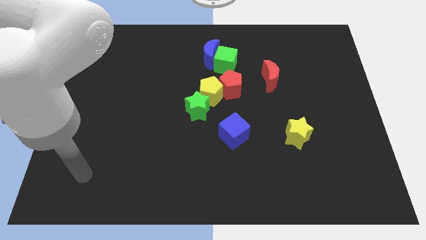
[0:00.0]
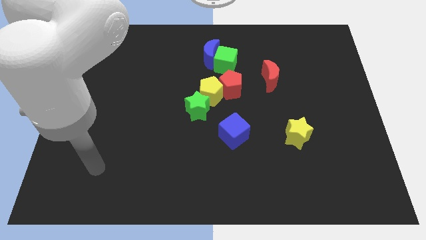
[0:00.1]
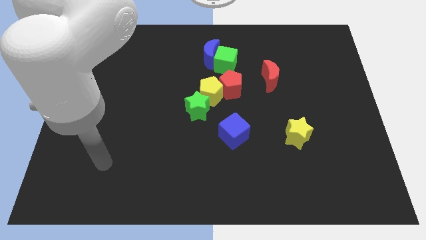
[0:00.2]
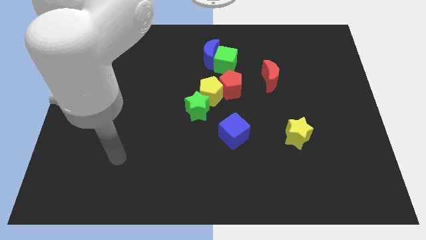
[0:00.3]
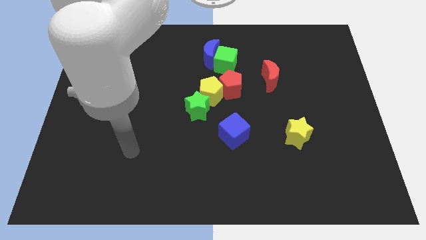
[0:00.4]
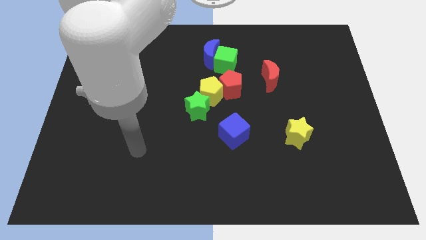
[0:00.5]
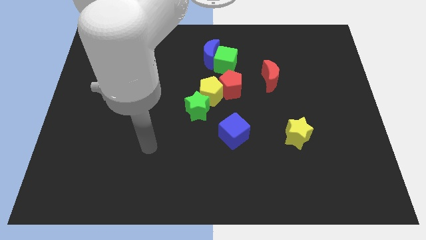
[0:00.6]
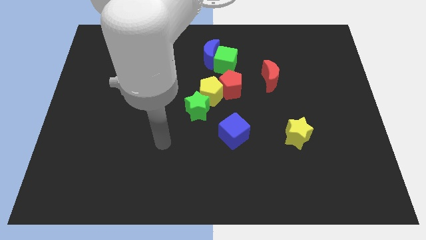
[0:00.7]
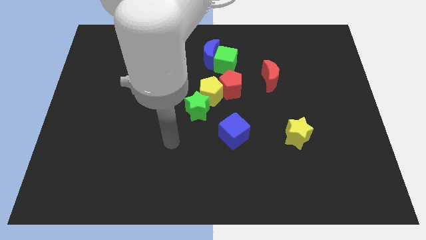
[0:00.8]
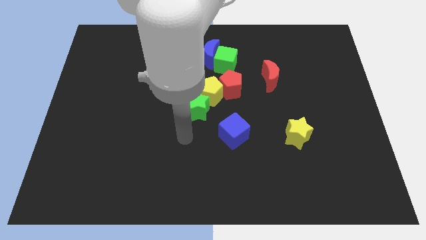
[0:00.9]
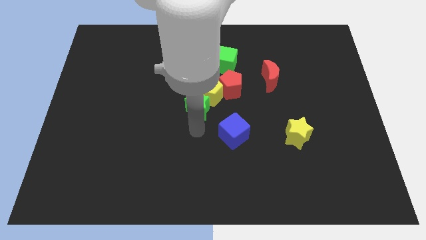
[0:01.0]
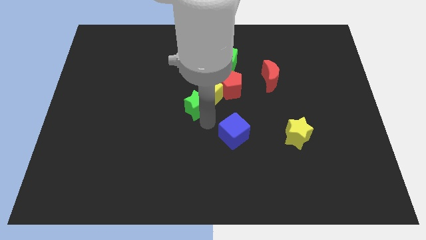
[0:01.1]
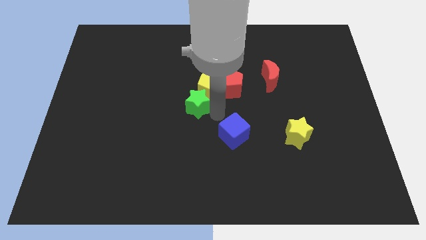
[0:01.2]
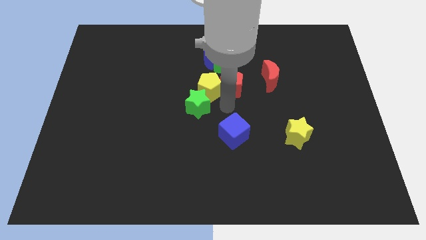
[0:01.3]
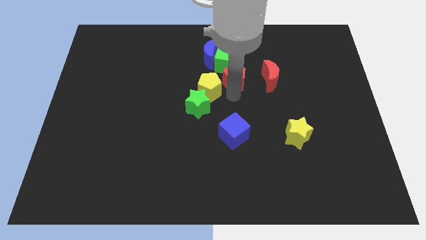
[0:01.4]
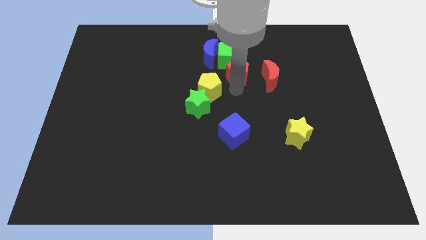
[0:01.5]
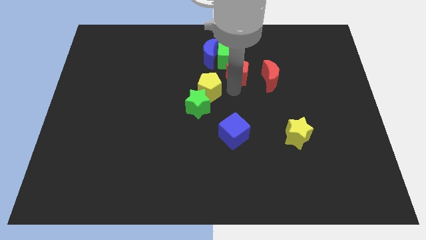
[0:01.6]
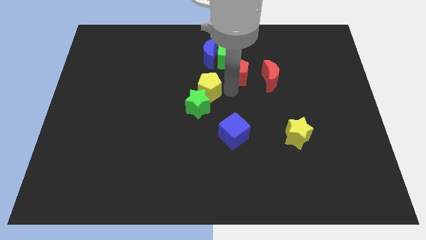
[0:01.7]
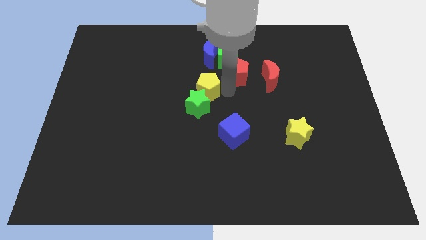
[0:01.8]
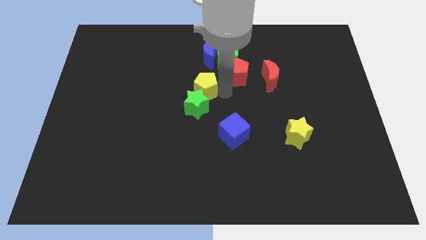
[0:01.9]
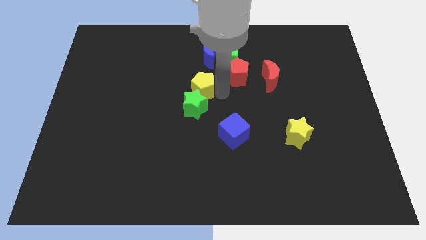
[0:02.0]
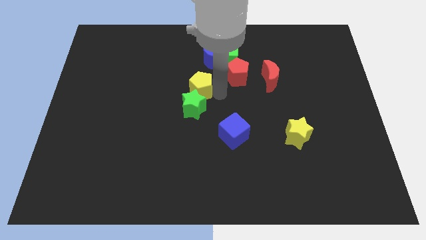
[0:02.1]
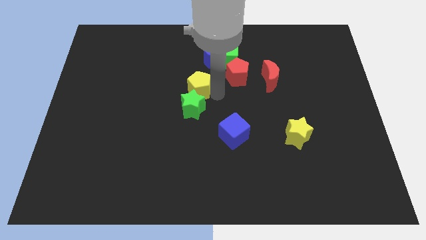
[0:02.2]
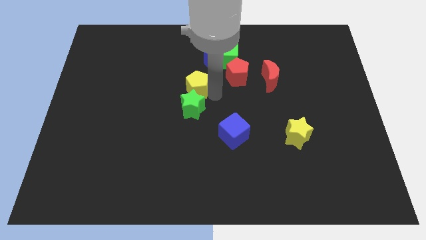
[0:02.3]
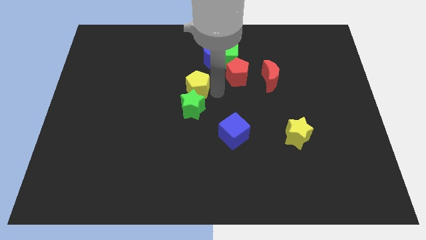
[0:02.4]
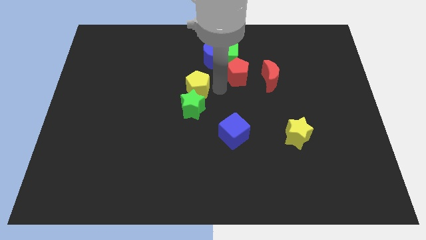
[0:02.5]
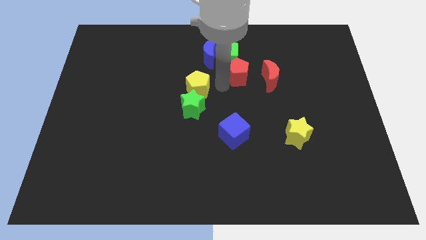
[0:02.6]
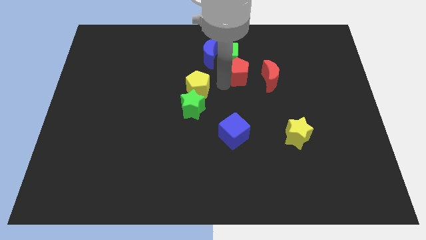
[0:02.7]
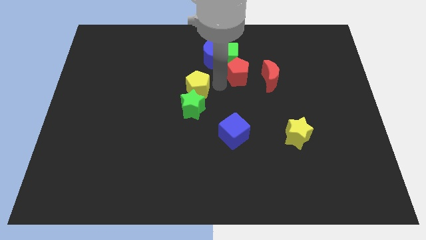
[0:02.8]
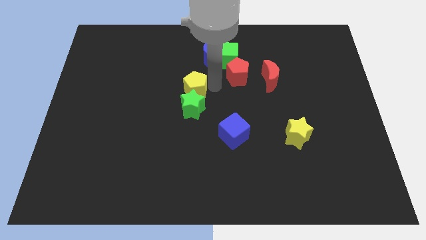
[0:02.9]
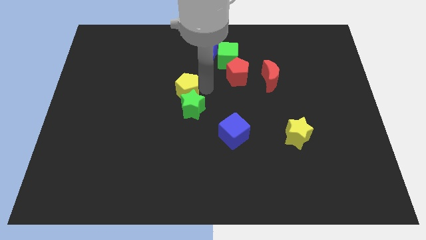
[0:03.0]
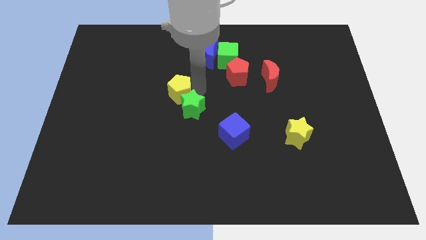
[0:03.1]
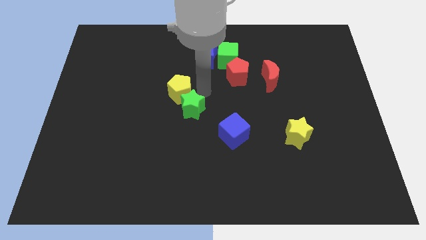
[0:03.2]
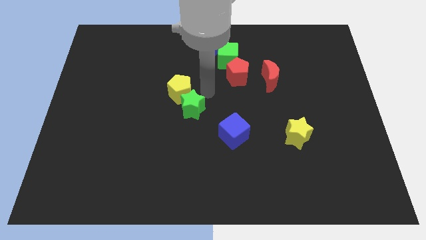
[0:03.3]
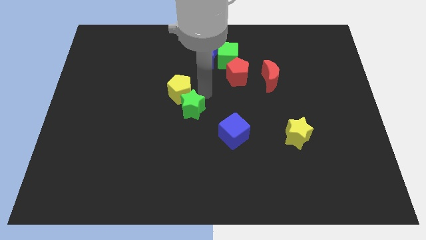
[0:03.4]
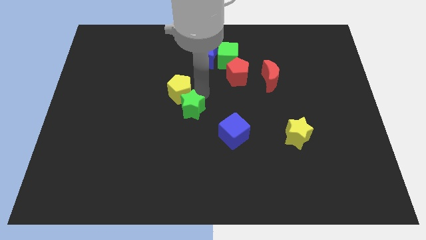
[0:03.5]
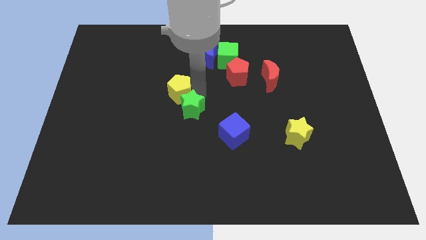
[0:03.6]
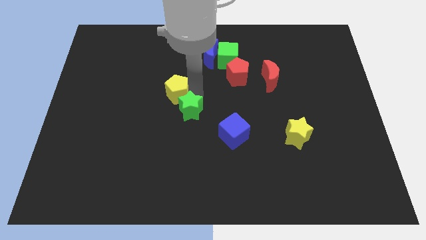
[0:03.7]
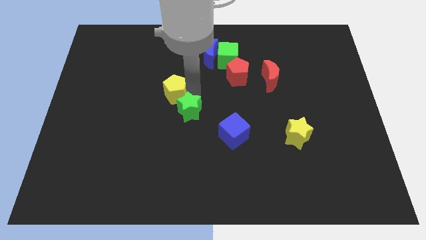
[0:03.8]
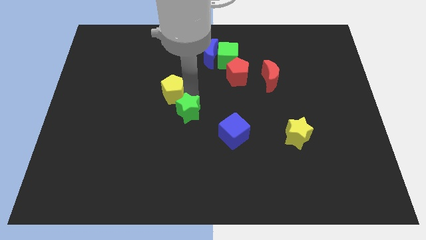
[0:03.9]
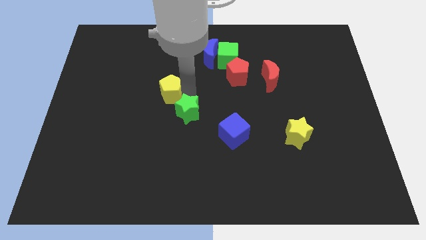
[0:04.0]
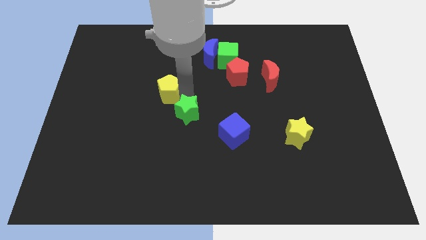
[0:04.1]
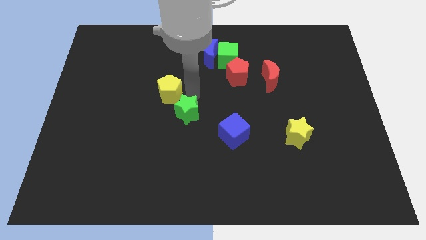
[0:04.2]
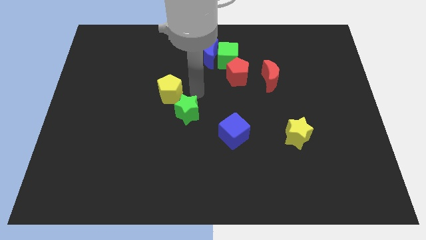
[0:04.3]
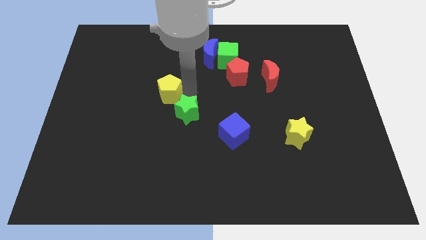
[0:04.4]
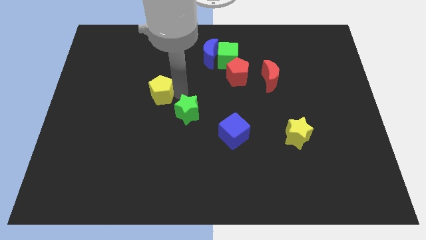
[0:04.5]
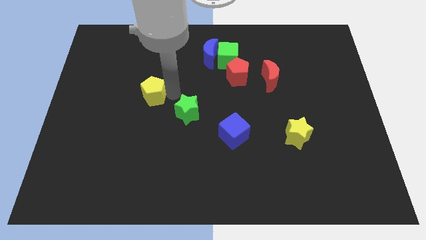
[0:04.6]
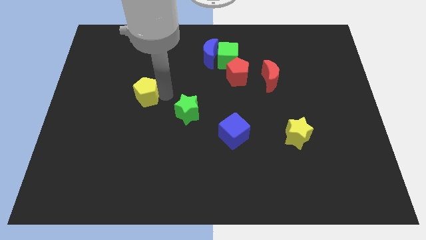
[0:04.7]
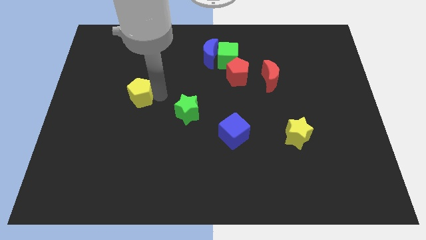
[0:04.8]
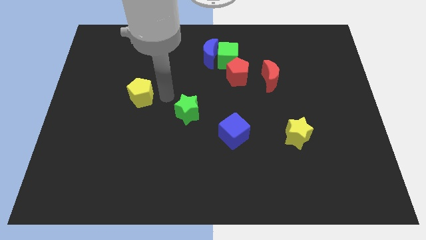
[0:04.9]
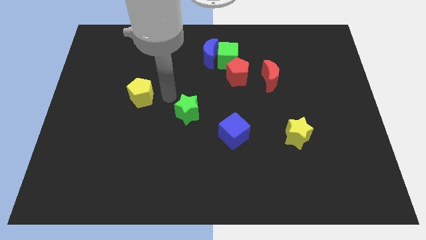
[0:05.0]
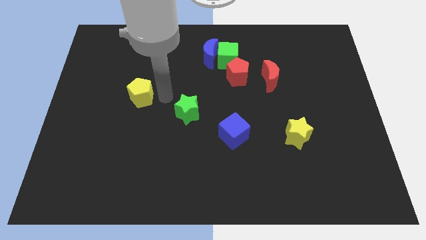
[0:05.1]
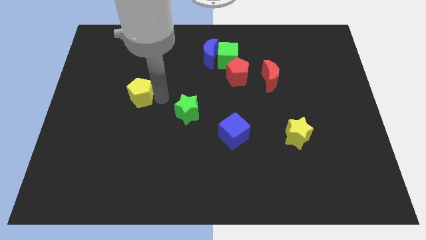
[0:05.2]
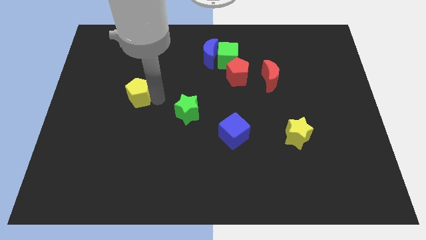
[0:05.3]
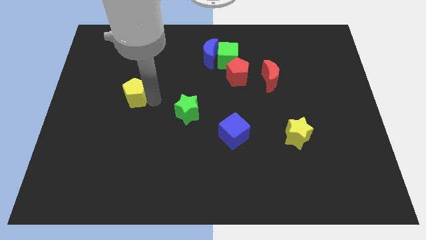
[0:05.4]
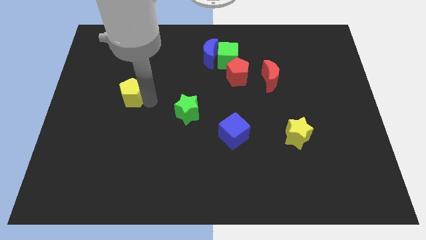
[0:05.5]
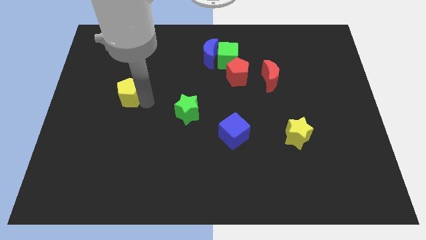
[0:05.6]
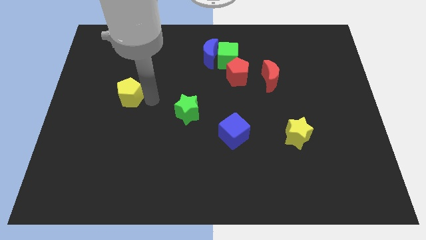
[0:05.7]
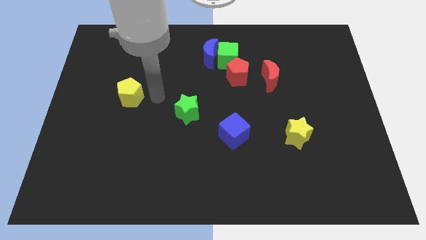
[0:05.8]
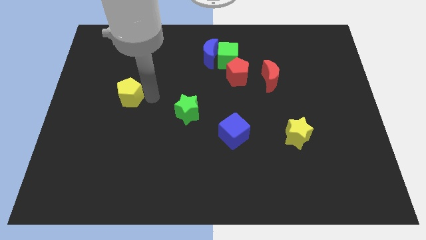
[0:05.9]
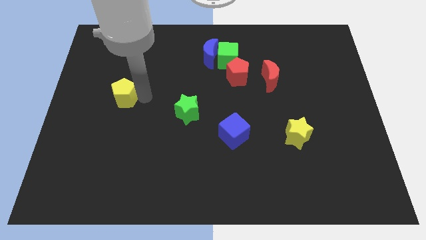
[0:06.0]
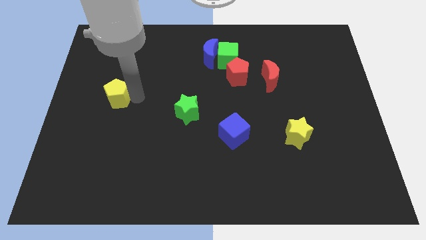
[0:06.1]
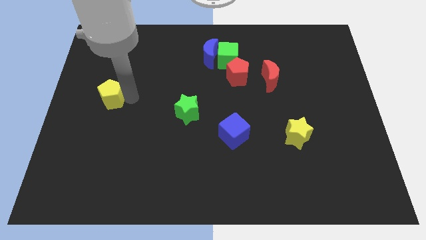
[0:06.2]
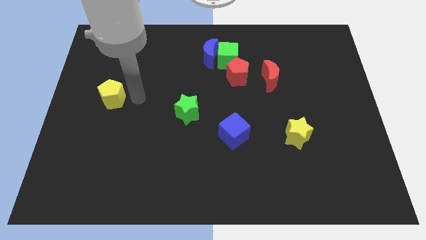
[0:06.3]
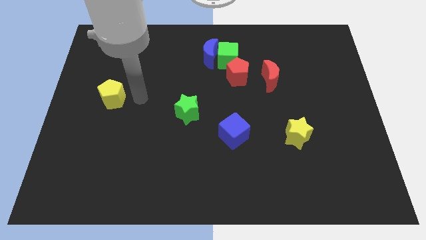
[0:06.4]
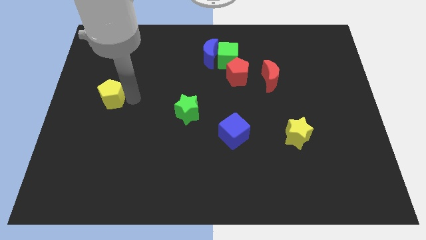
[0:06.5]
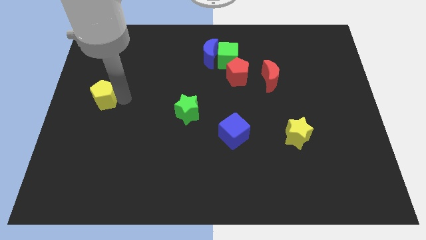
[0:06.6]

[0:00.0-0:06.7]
slide the yellow pentagon to the left side
